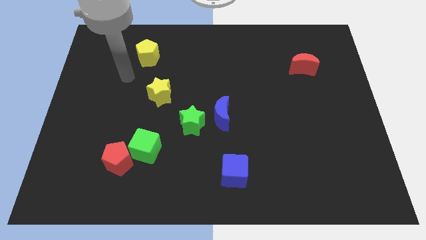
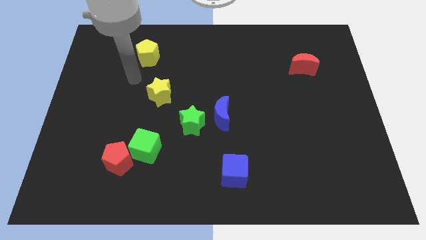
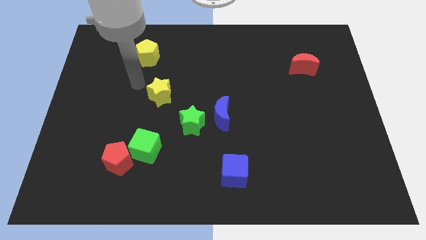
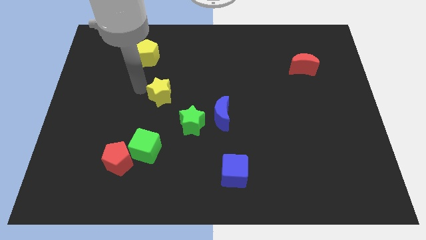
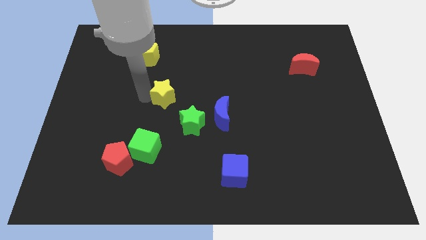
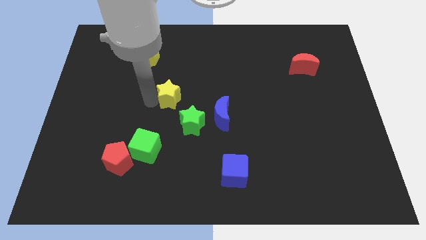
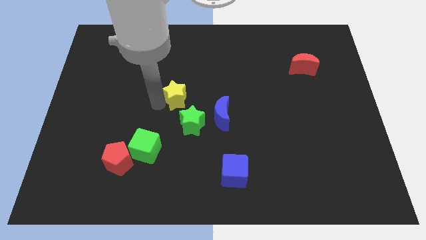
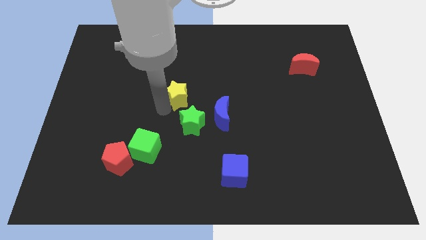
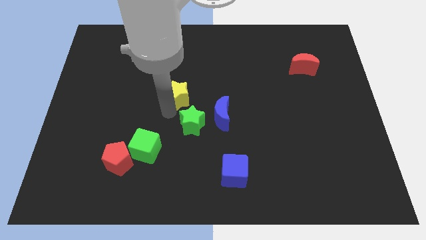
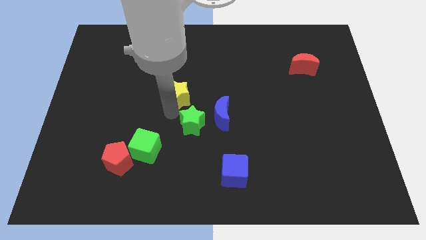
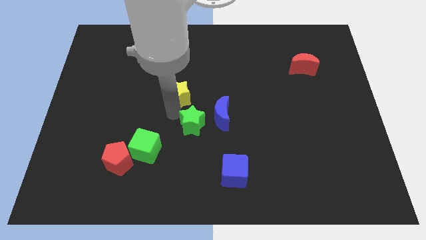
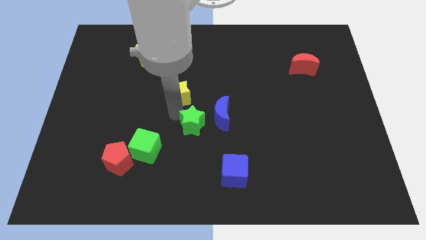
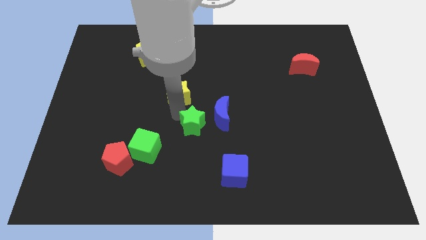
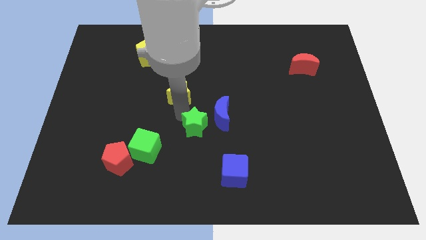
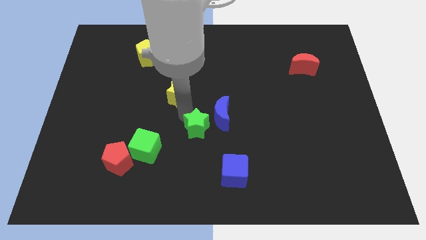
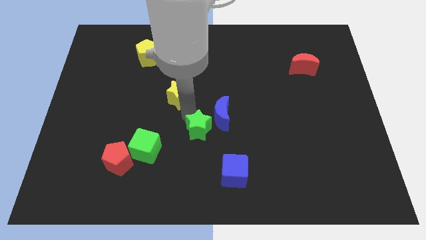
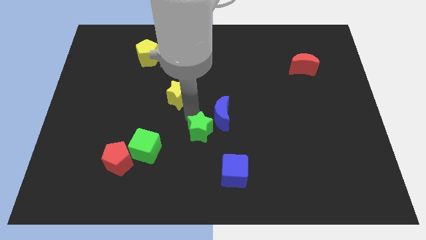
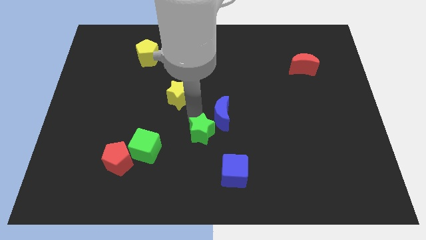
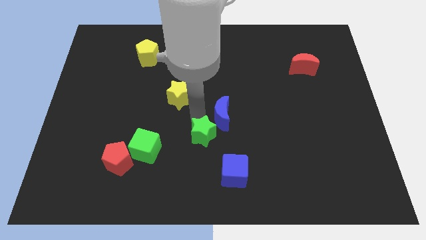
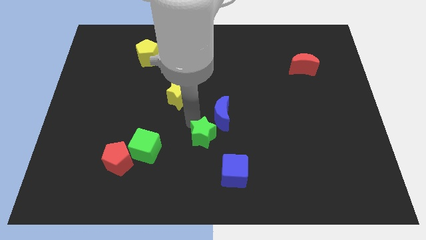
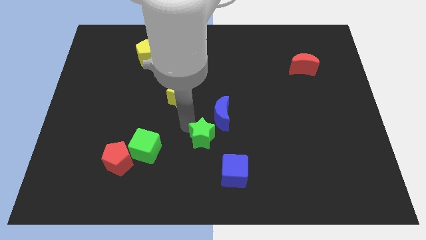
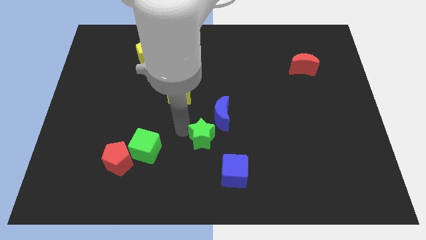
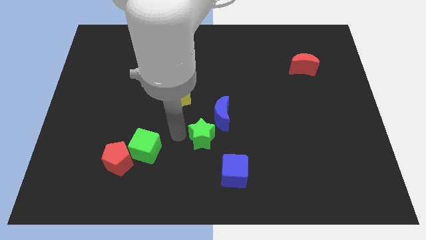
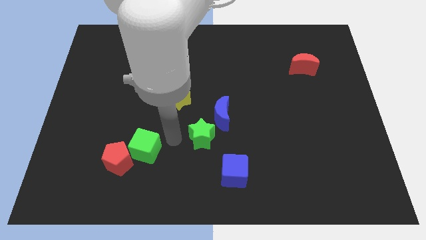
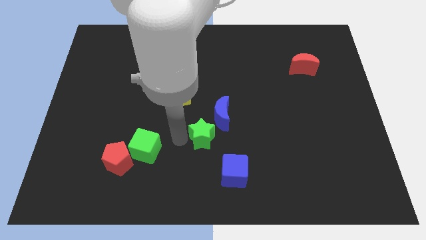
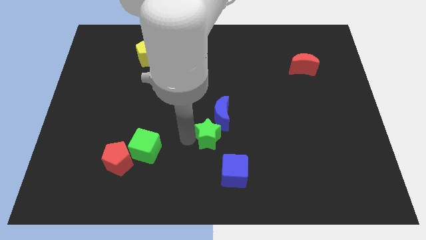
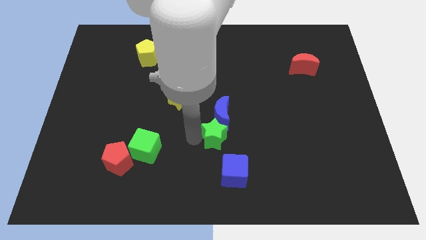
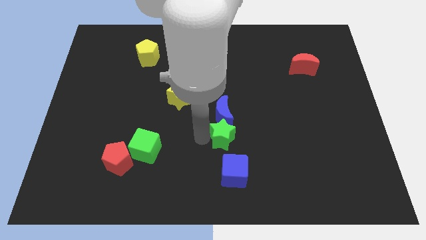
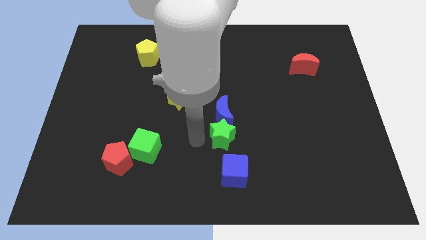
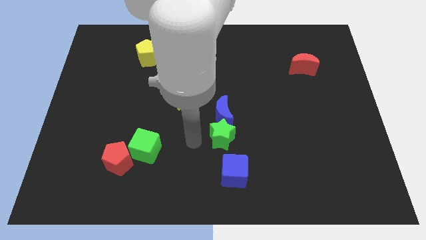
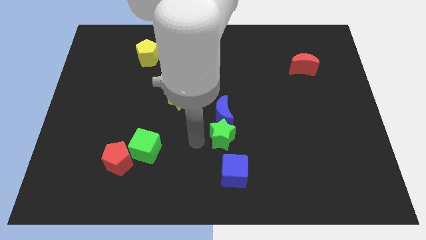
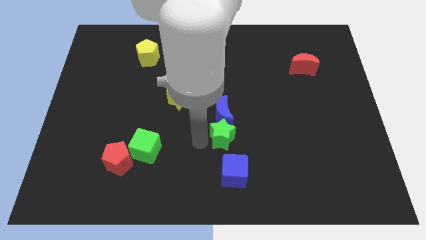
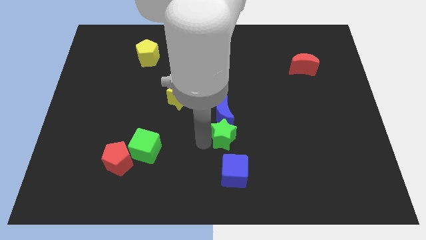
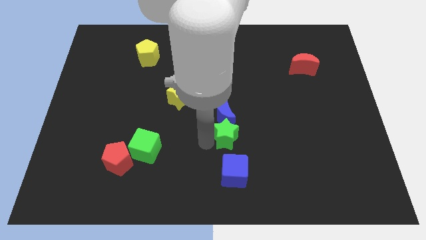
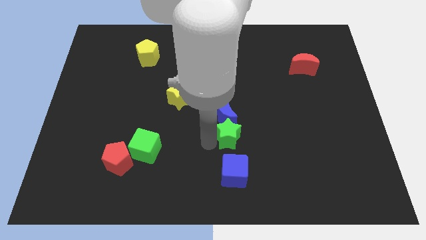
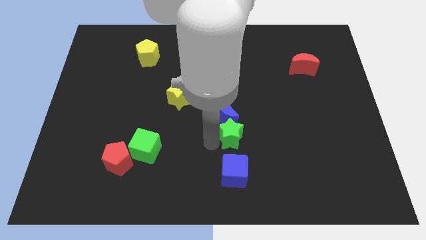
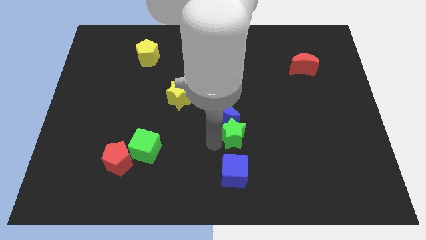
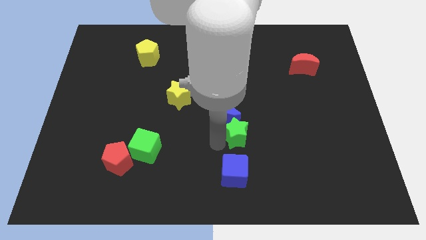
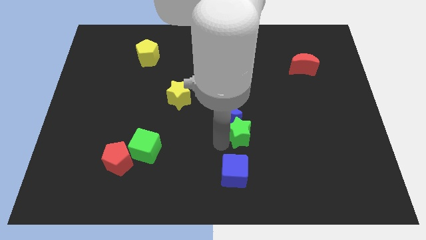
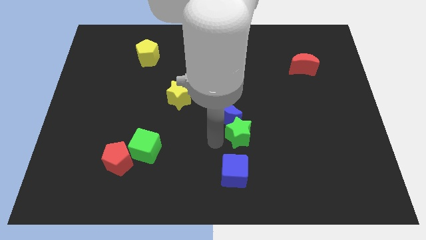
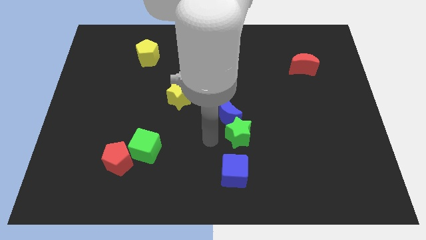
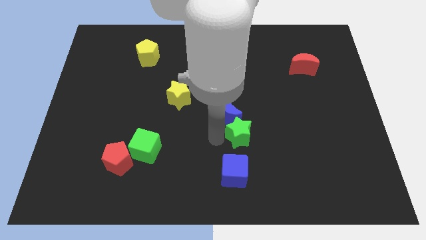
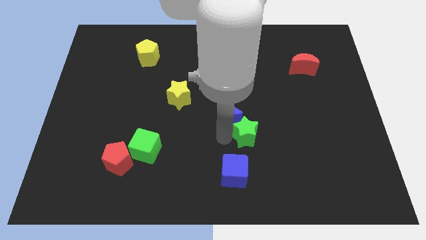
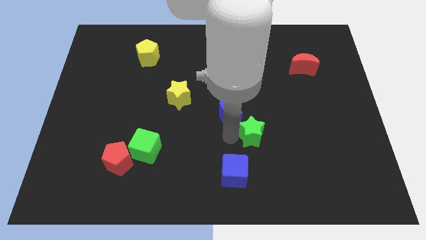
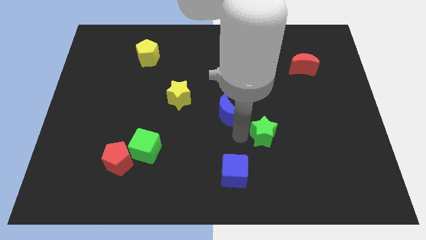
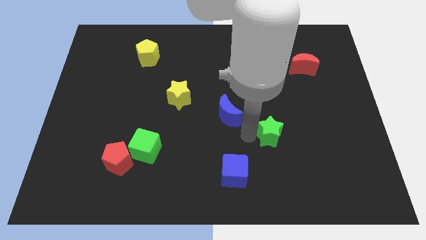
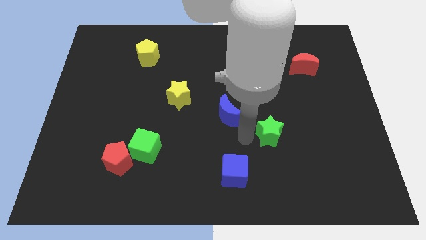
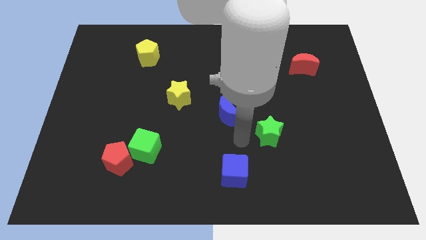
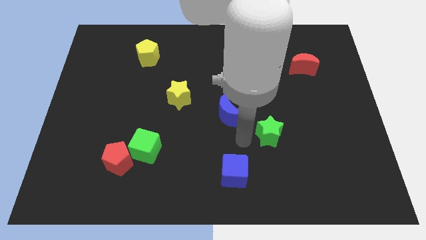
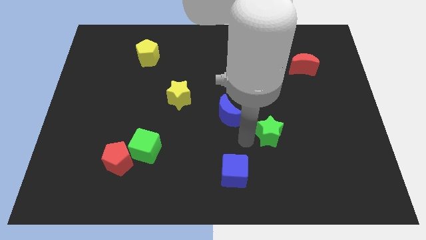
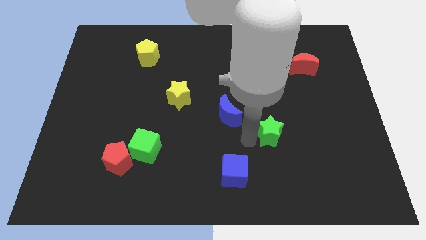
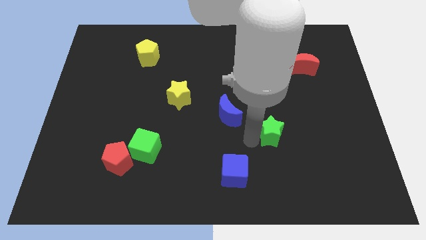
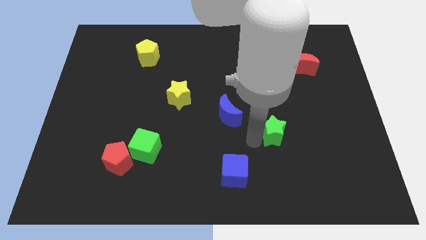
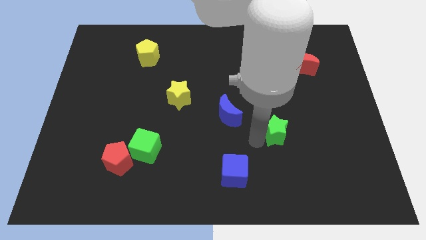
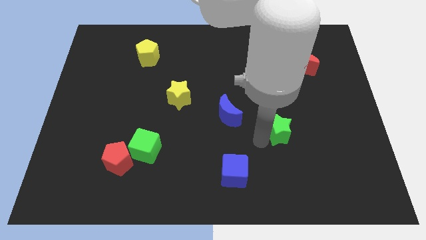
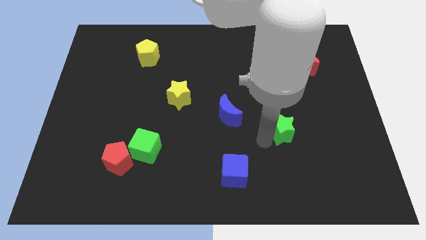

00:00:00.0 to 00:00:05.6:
move the green star right

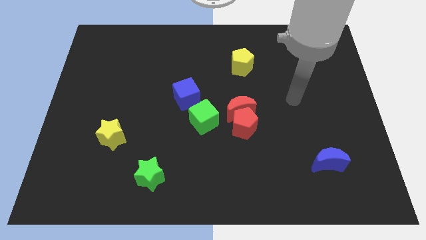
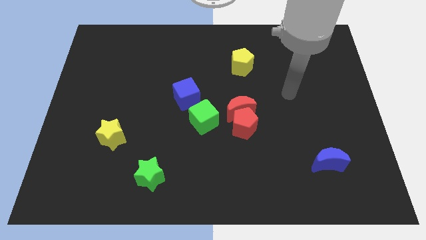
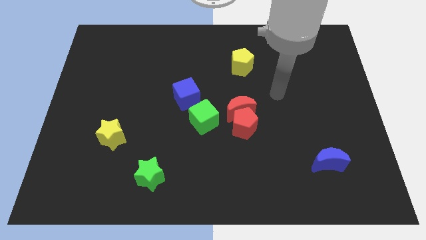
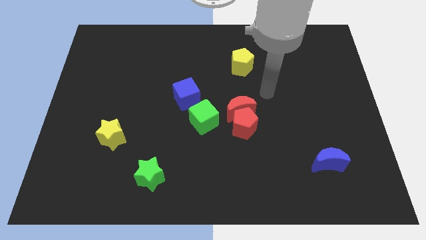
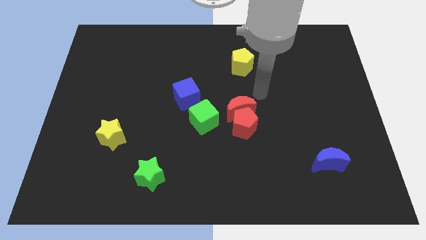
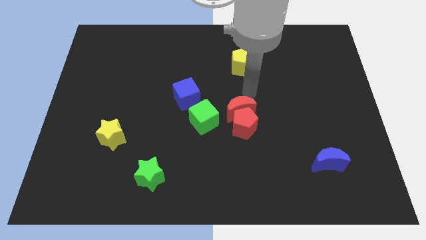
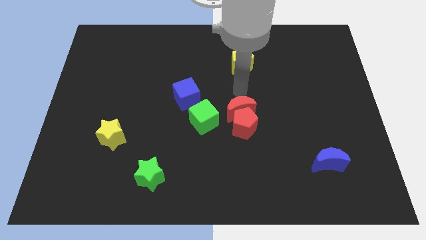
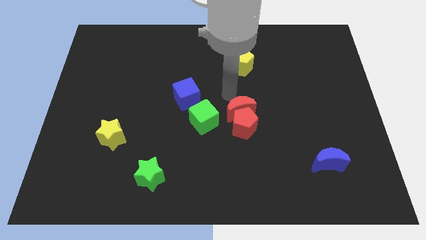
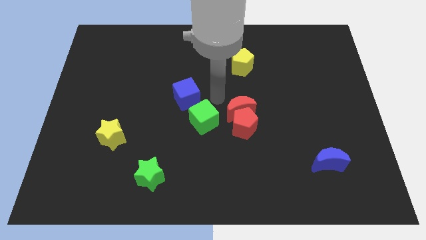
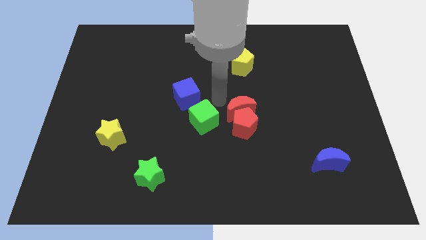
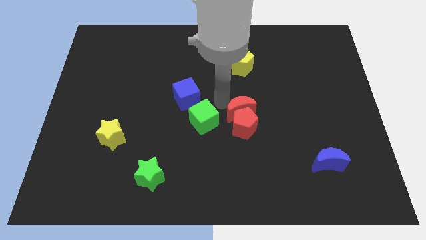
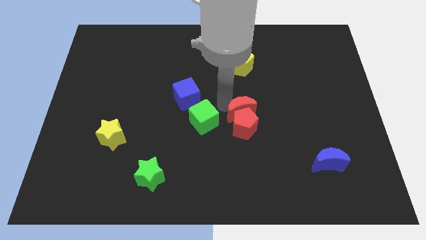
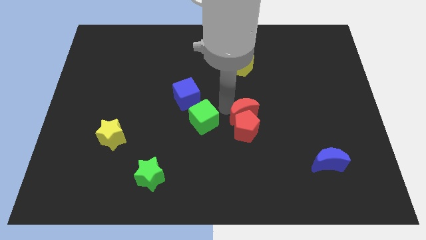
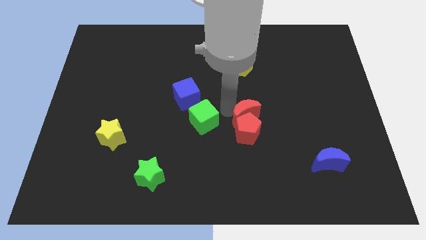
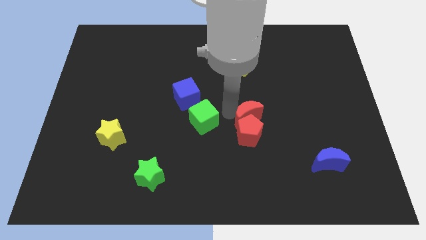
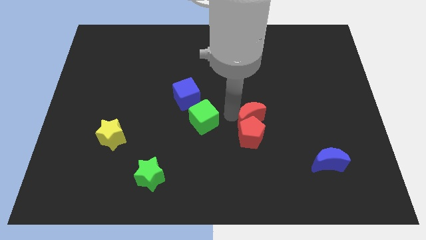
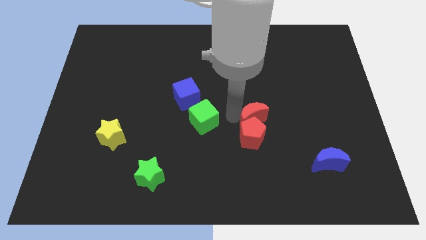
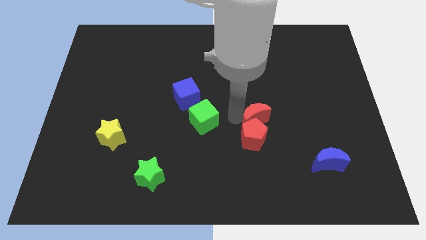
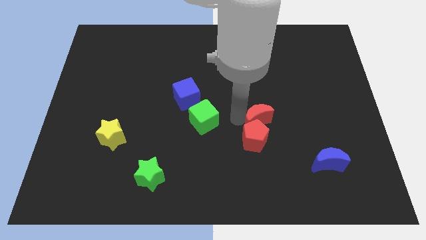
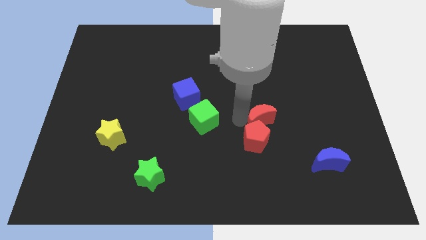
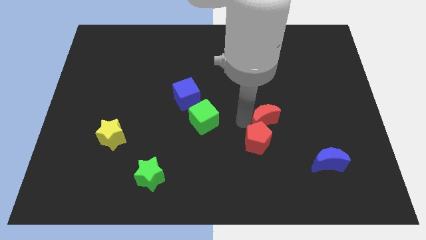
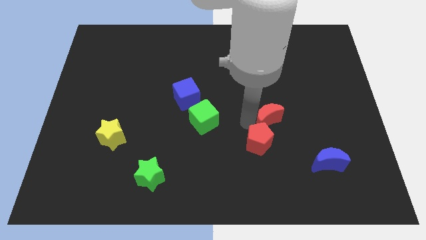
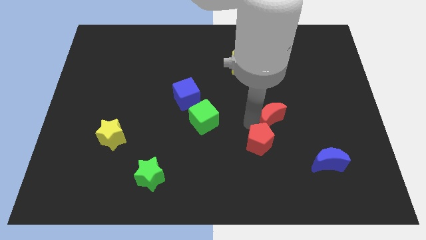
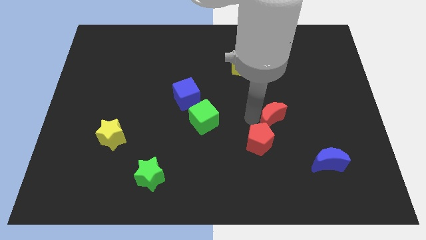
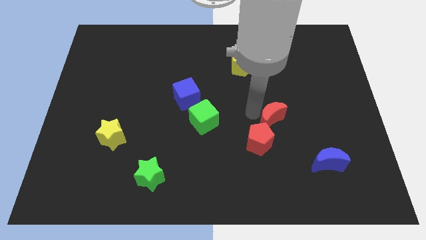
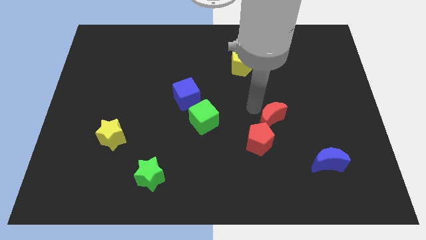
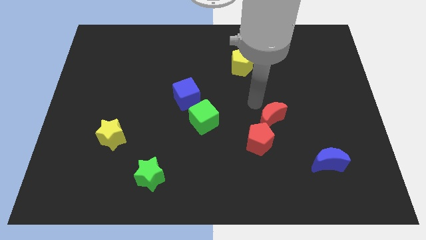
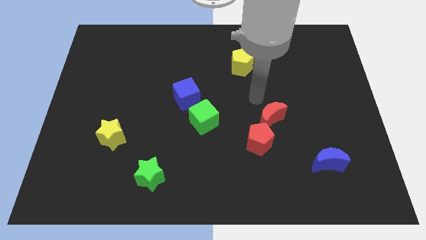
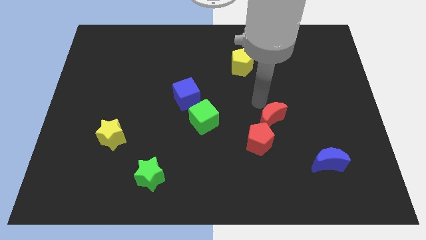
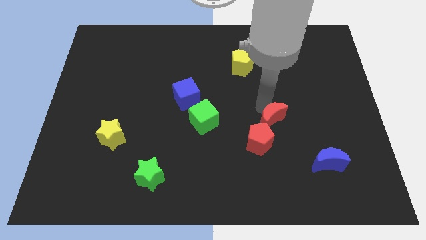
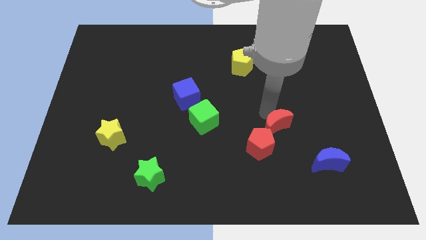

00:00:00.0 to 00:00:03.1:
push the red moon downwards and to the right diagonally a little bit
